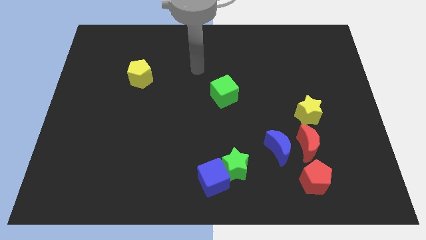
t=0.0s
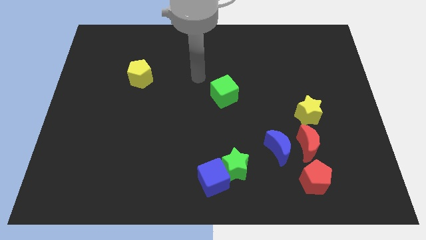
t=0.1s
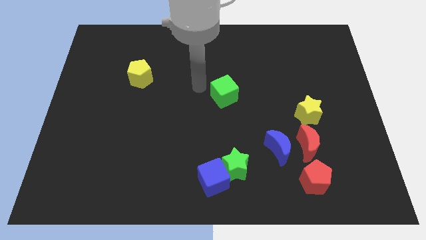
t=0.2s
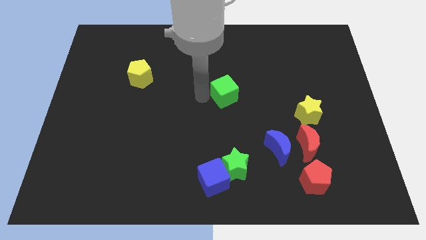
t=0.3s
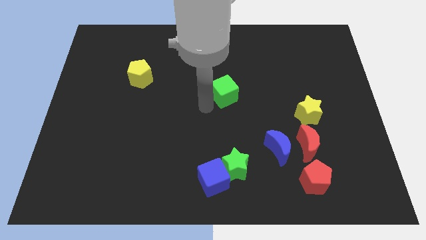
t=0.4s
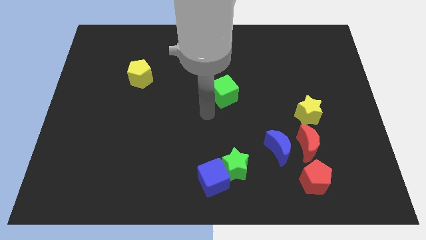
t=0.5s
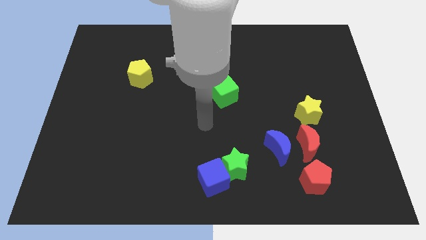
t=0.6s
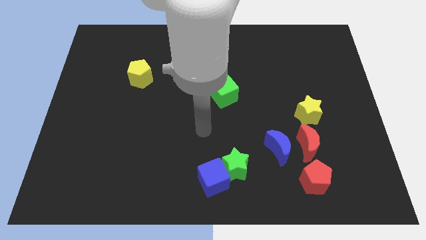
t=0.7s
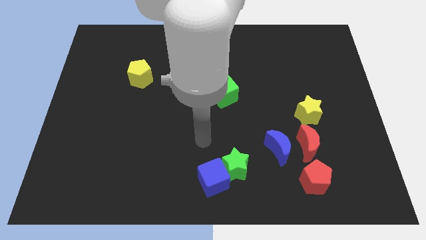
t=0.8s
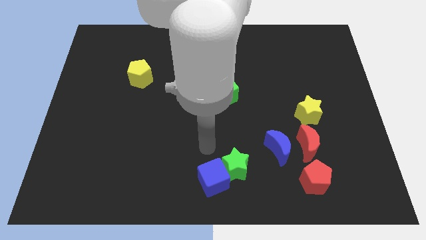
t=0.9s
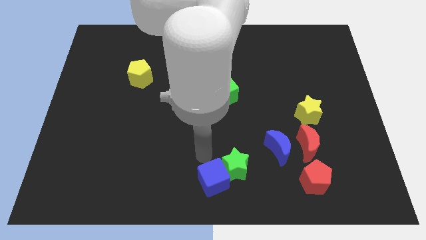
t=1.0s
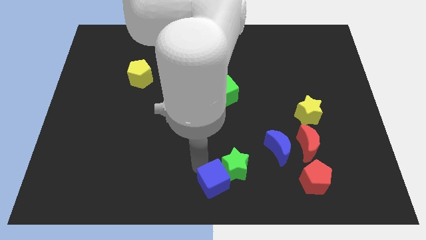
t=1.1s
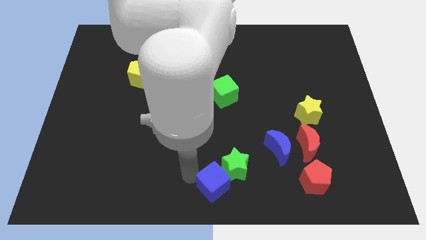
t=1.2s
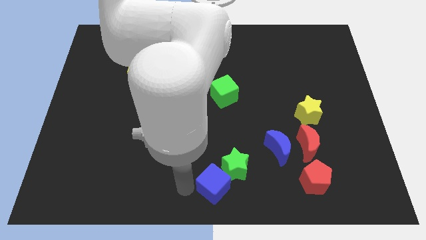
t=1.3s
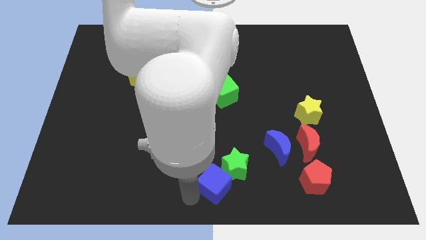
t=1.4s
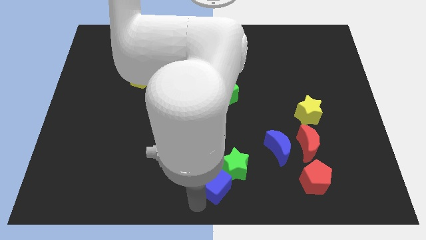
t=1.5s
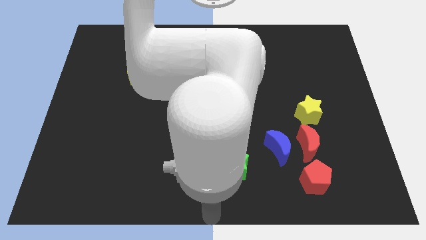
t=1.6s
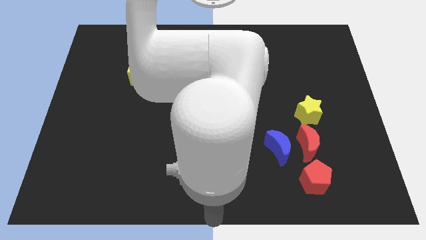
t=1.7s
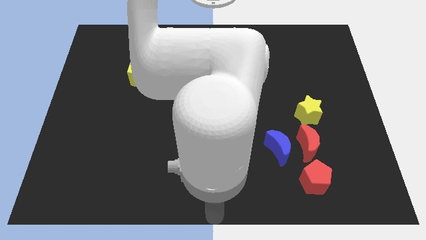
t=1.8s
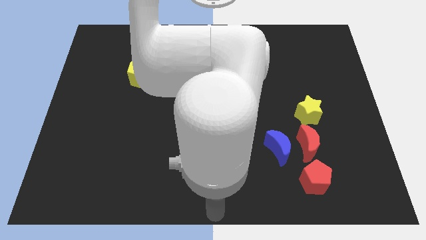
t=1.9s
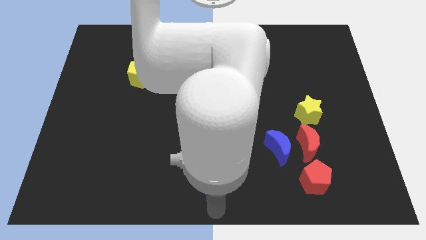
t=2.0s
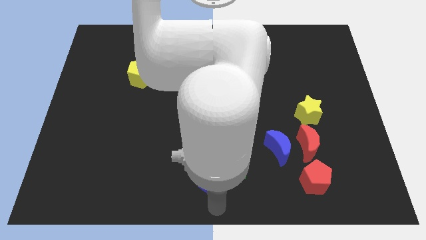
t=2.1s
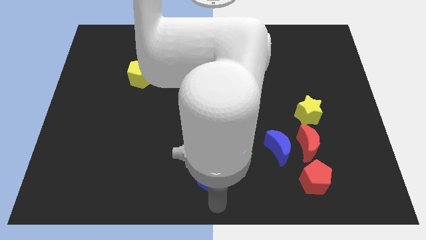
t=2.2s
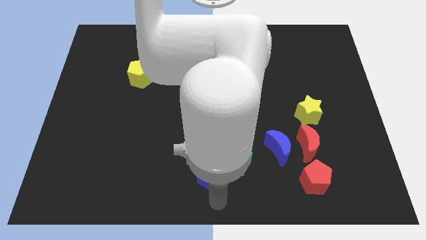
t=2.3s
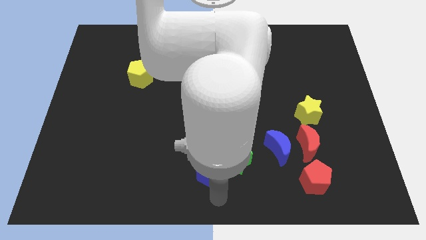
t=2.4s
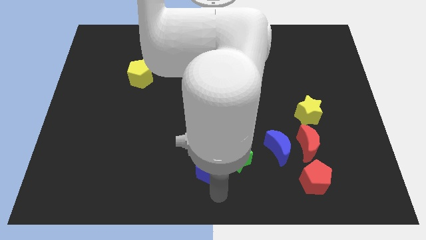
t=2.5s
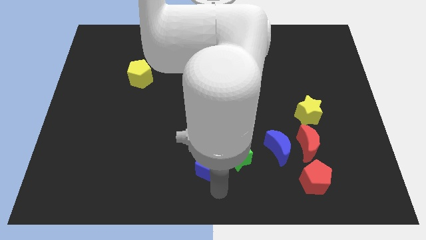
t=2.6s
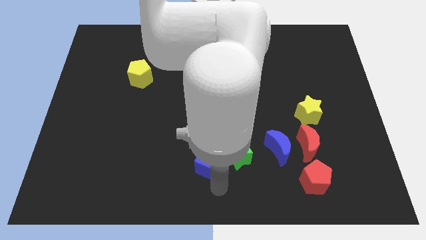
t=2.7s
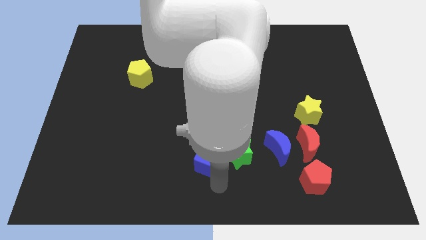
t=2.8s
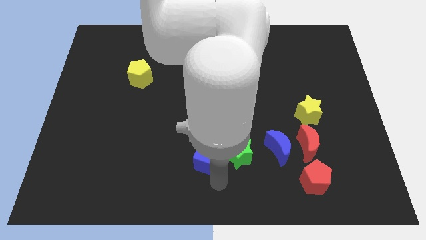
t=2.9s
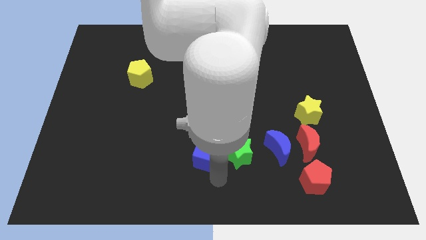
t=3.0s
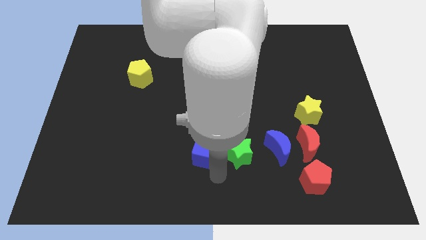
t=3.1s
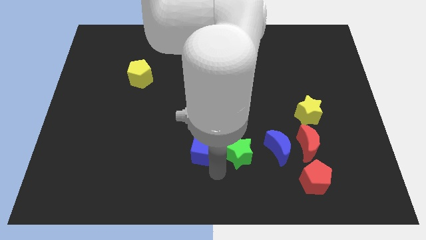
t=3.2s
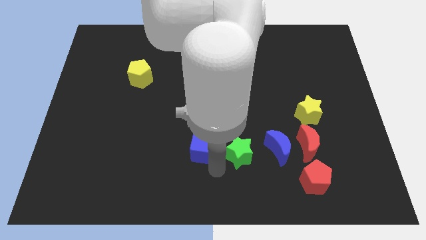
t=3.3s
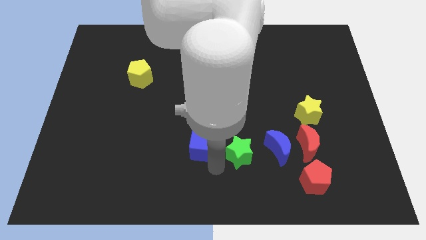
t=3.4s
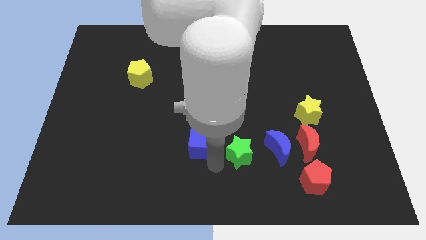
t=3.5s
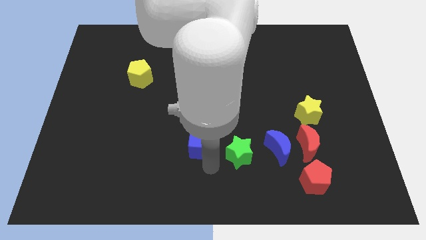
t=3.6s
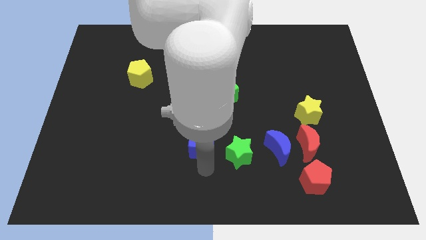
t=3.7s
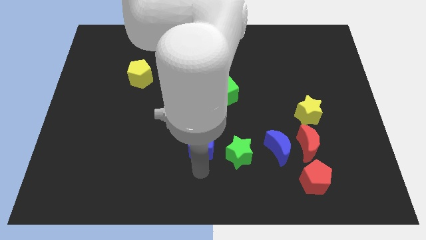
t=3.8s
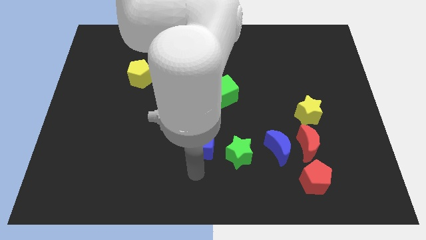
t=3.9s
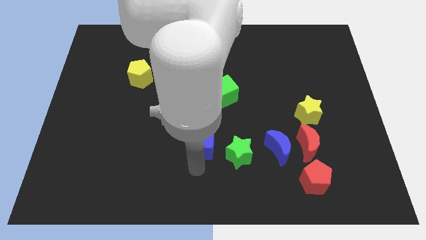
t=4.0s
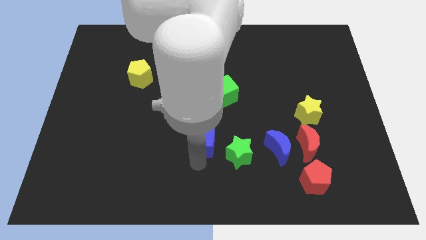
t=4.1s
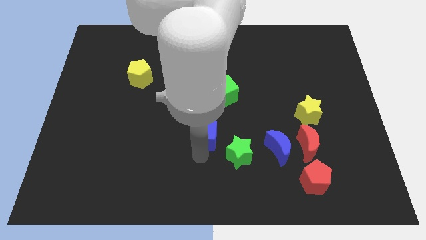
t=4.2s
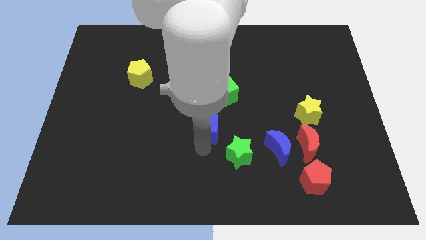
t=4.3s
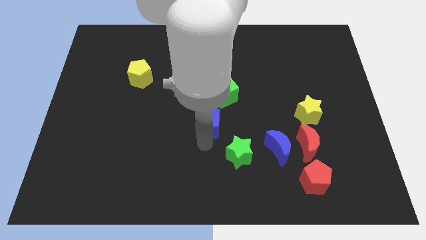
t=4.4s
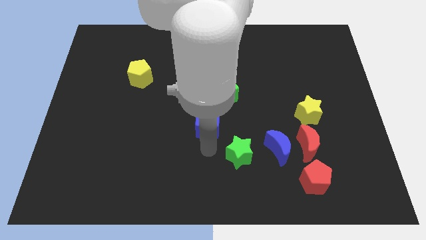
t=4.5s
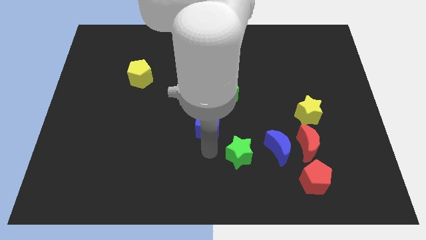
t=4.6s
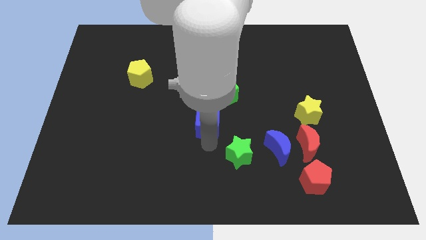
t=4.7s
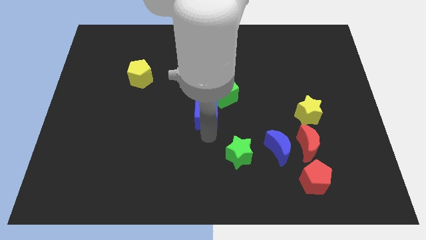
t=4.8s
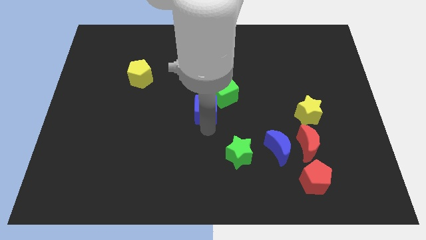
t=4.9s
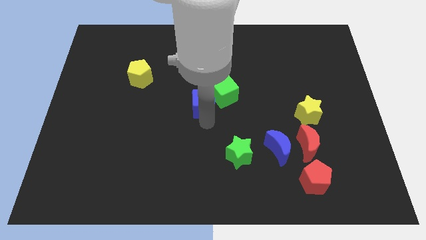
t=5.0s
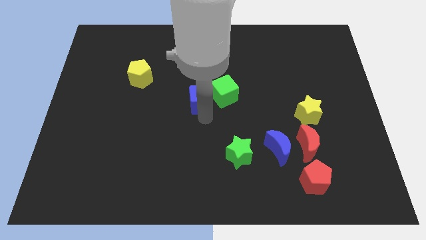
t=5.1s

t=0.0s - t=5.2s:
slide the blue cube up

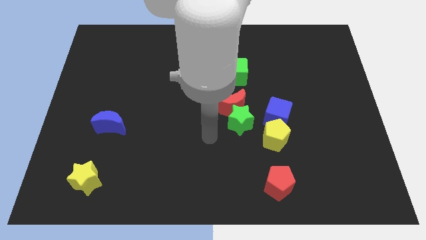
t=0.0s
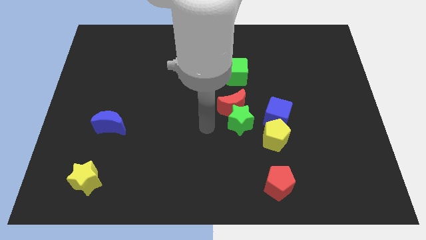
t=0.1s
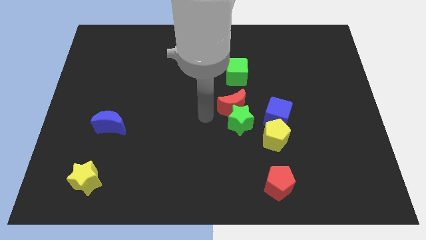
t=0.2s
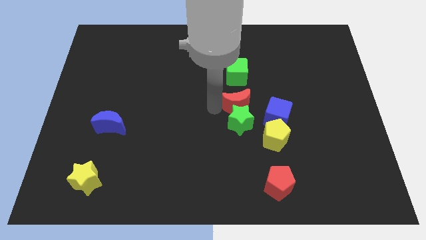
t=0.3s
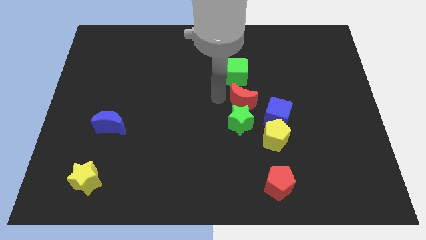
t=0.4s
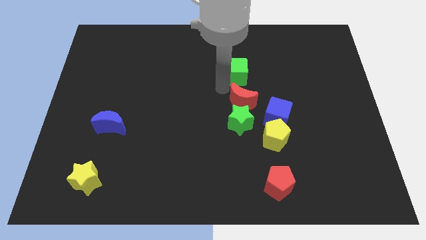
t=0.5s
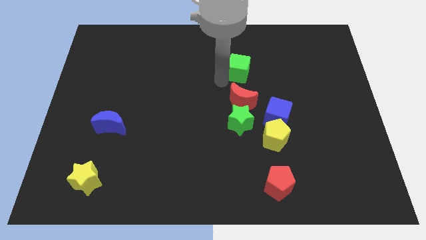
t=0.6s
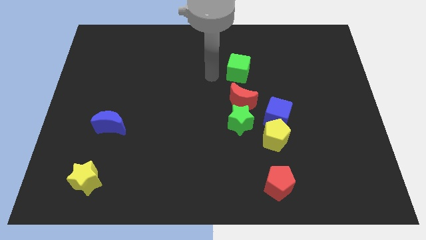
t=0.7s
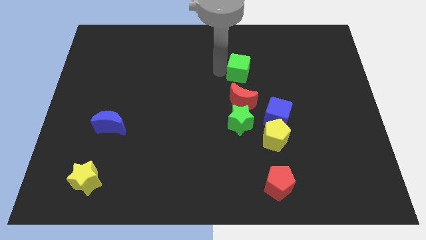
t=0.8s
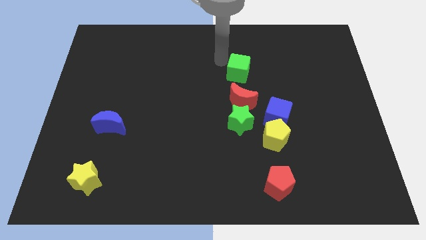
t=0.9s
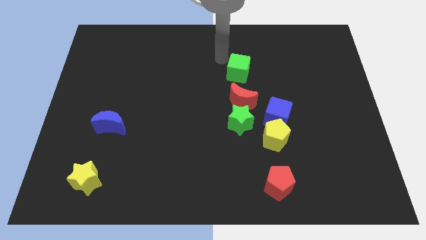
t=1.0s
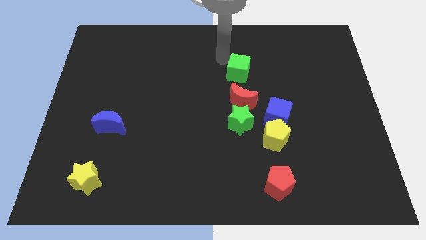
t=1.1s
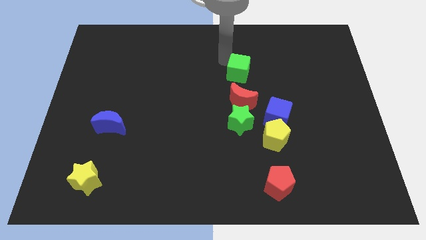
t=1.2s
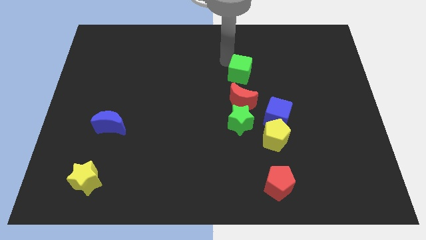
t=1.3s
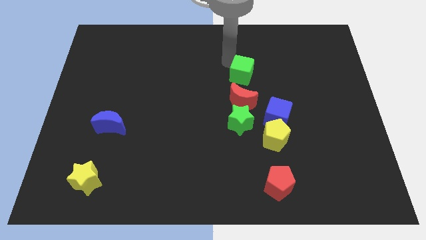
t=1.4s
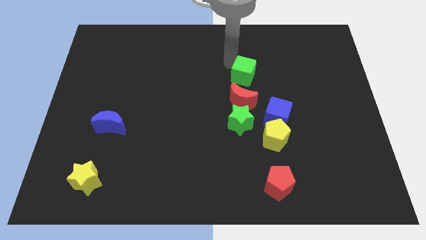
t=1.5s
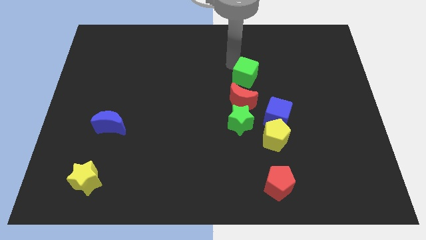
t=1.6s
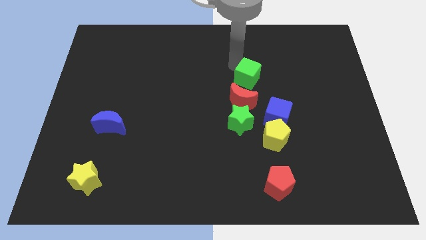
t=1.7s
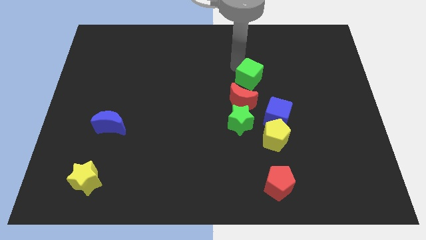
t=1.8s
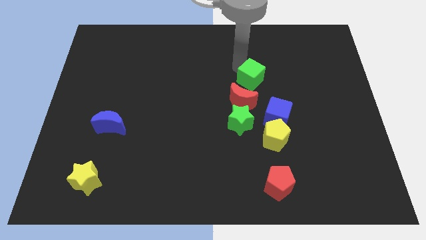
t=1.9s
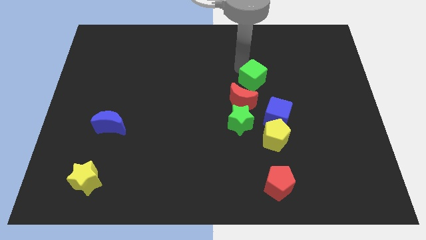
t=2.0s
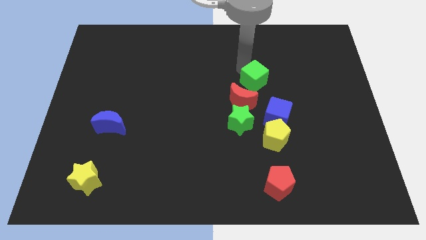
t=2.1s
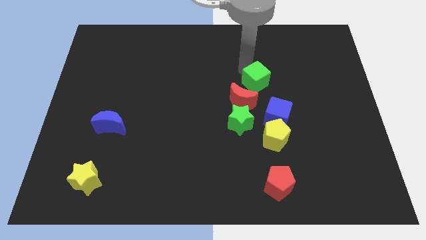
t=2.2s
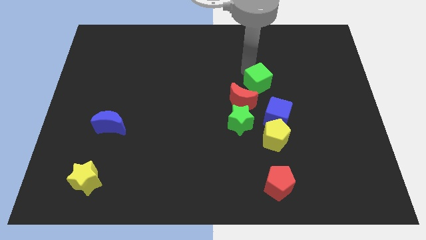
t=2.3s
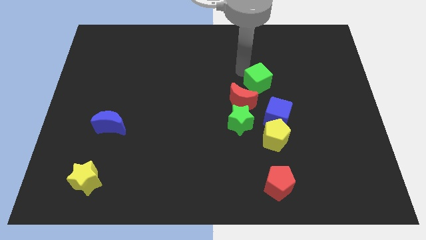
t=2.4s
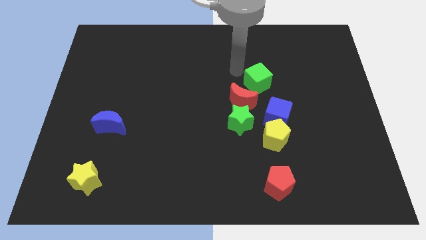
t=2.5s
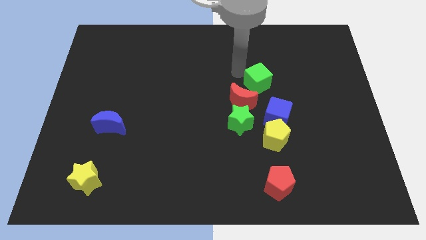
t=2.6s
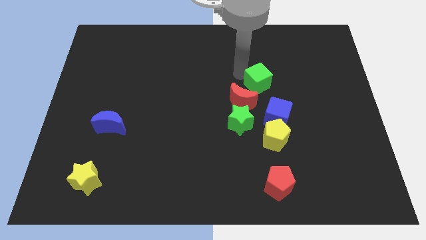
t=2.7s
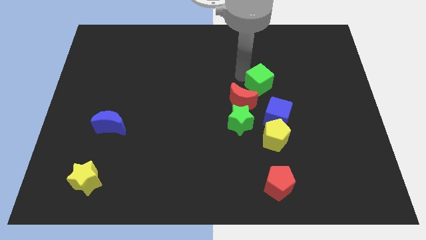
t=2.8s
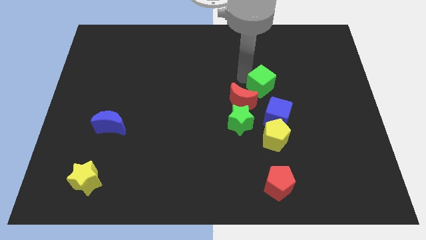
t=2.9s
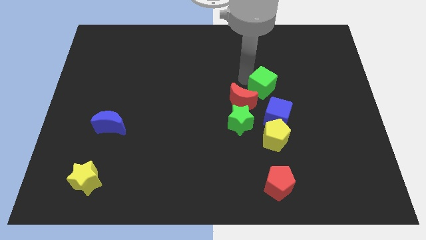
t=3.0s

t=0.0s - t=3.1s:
slightly push the green cube diagonally down and right
